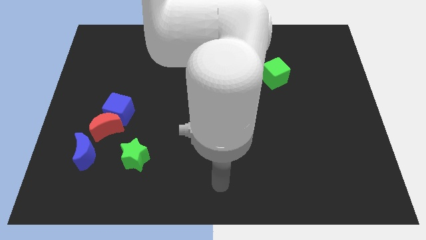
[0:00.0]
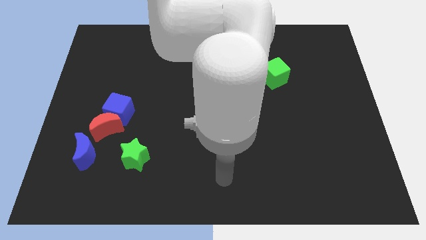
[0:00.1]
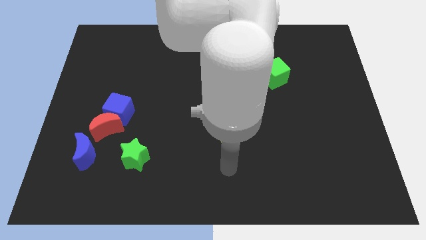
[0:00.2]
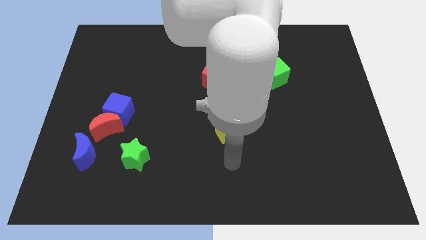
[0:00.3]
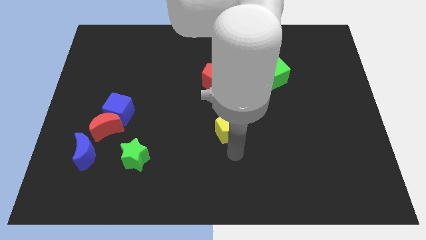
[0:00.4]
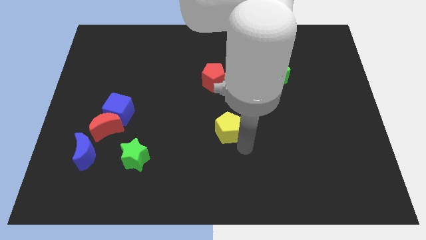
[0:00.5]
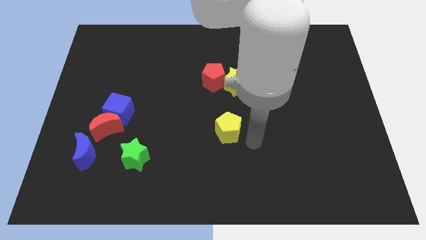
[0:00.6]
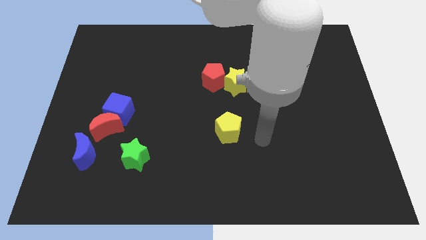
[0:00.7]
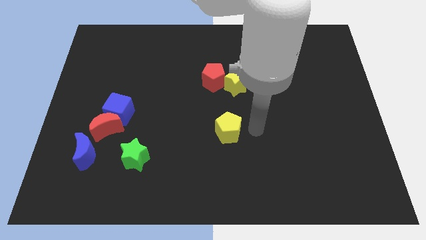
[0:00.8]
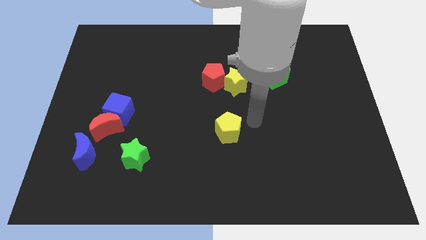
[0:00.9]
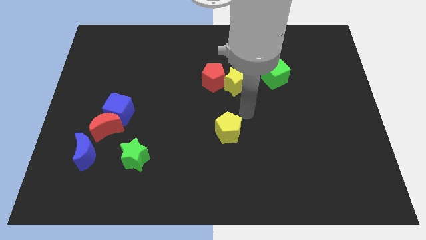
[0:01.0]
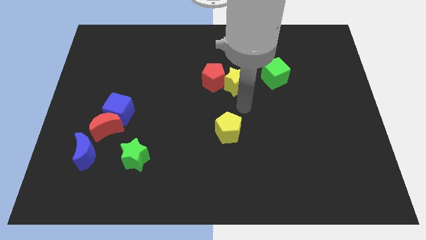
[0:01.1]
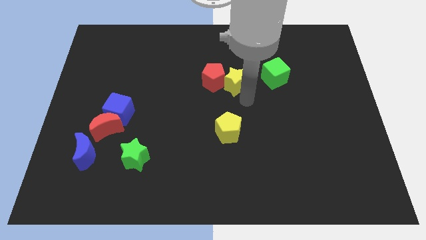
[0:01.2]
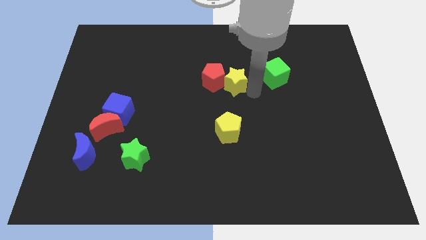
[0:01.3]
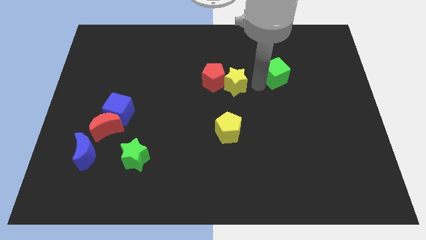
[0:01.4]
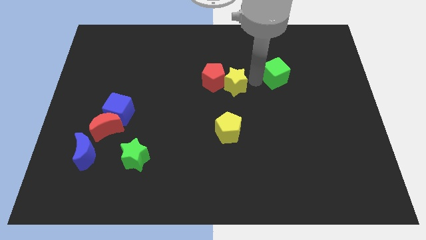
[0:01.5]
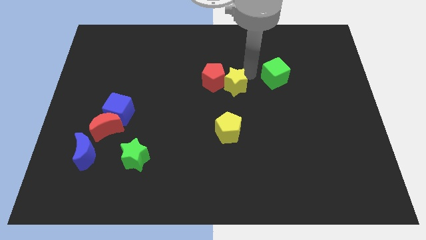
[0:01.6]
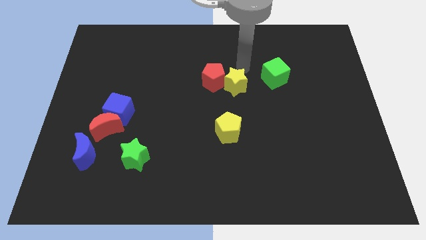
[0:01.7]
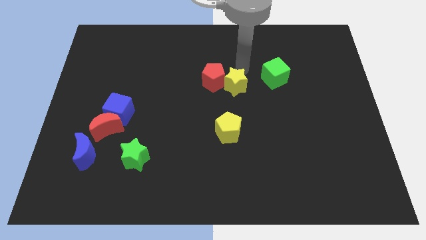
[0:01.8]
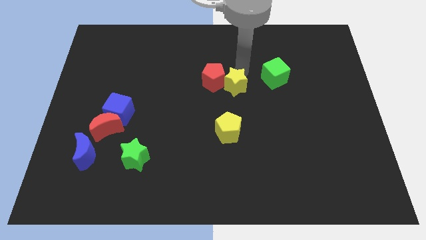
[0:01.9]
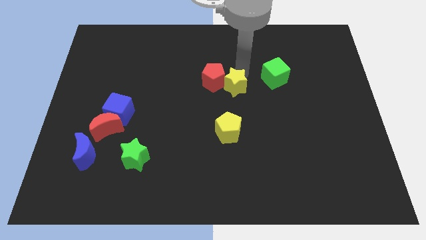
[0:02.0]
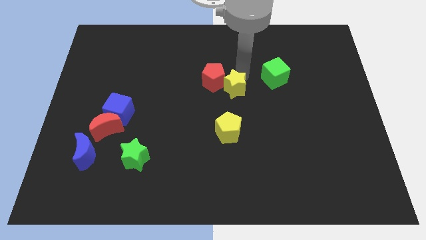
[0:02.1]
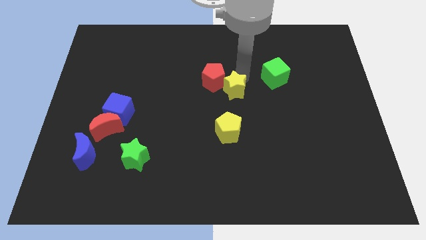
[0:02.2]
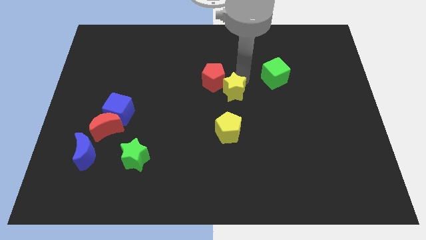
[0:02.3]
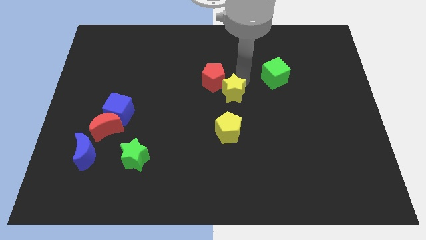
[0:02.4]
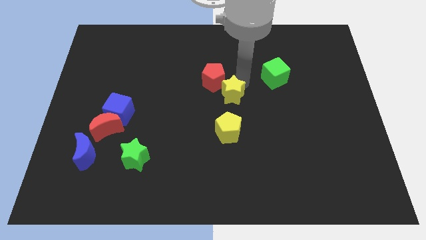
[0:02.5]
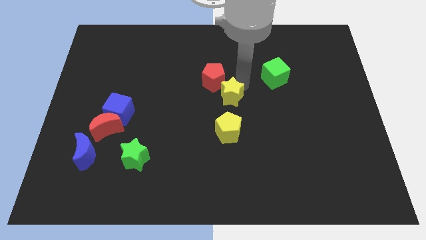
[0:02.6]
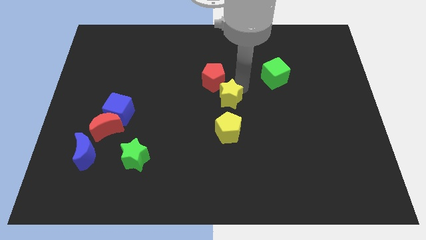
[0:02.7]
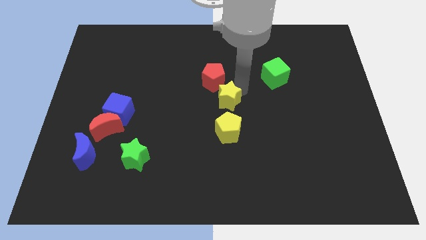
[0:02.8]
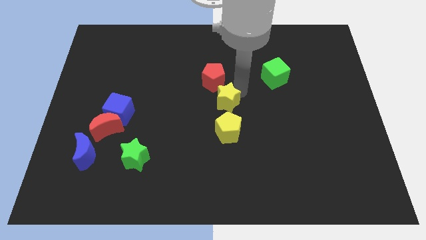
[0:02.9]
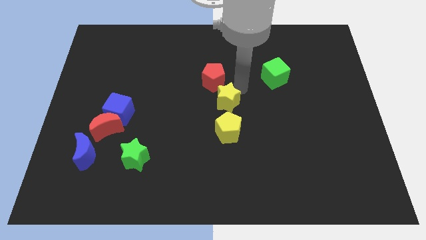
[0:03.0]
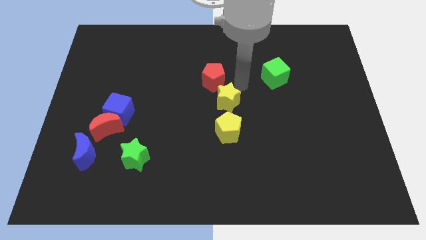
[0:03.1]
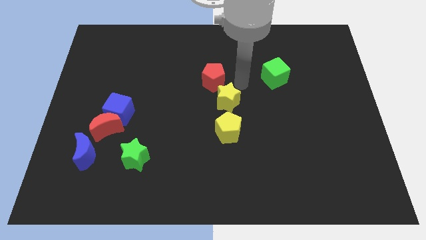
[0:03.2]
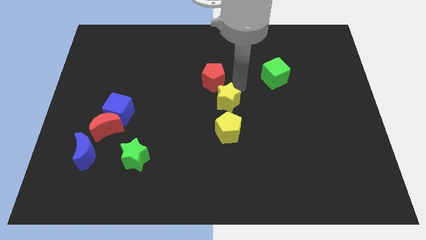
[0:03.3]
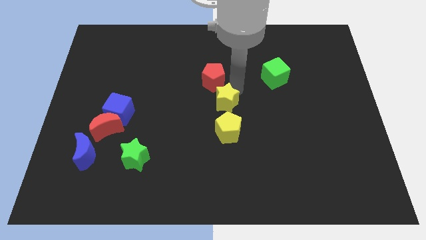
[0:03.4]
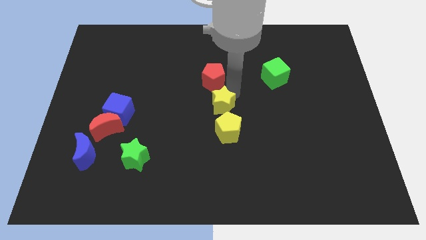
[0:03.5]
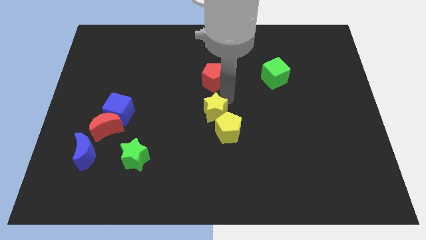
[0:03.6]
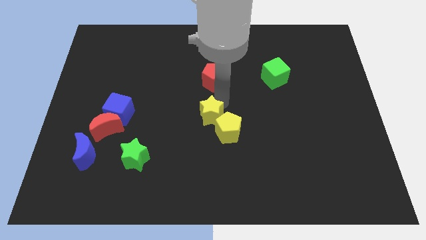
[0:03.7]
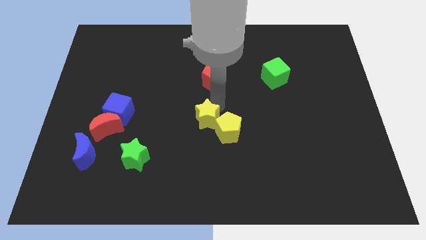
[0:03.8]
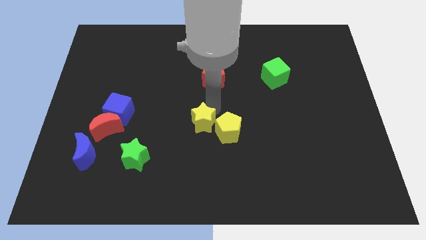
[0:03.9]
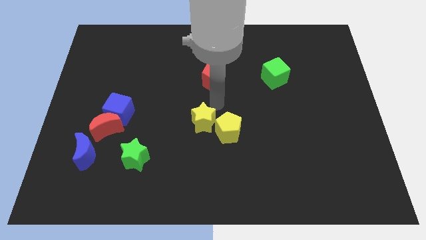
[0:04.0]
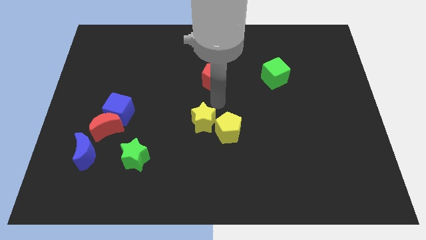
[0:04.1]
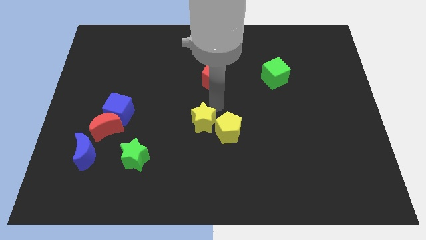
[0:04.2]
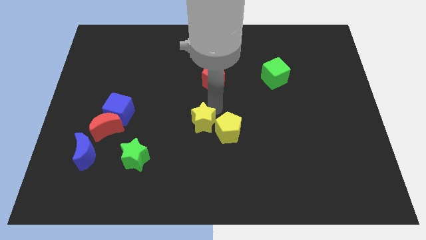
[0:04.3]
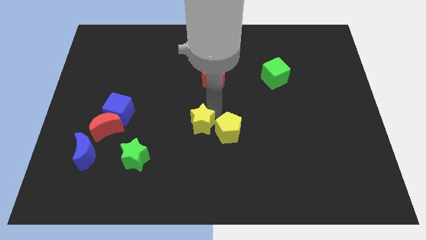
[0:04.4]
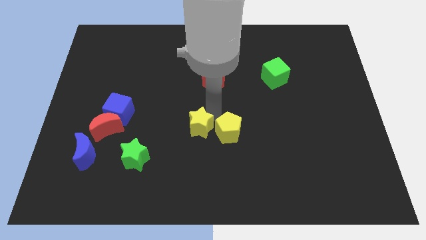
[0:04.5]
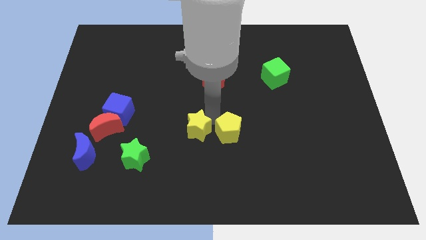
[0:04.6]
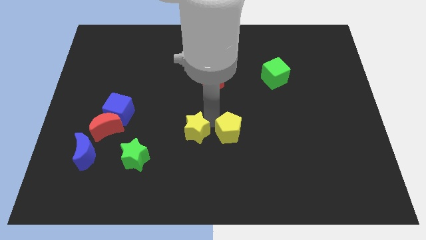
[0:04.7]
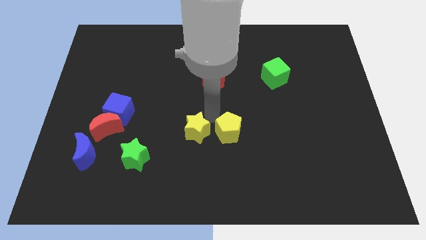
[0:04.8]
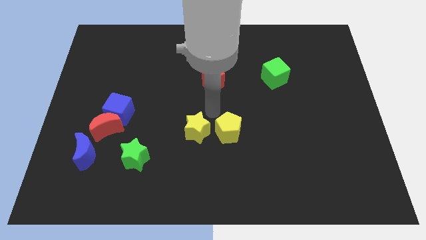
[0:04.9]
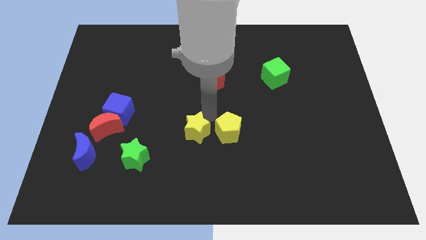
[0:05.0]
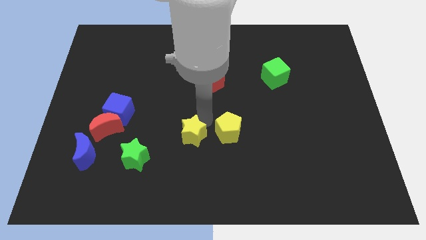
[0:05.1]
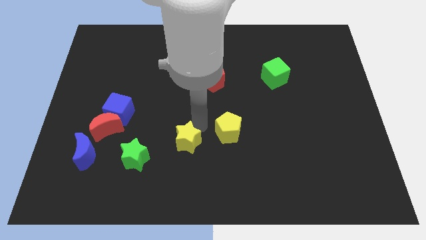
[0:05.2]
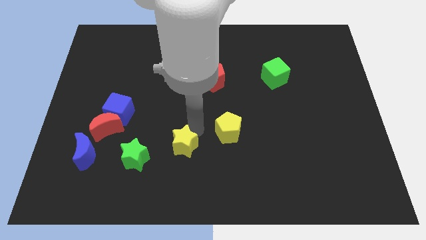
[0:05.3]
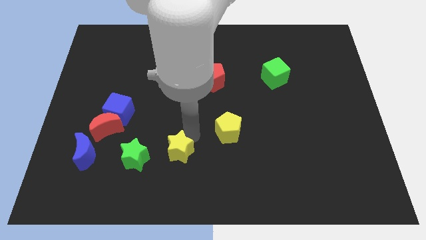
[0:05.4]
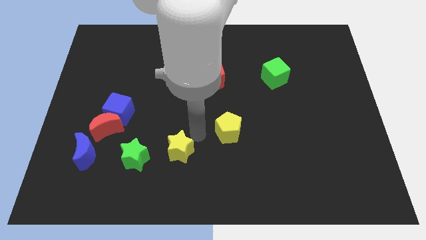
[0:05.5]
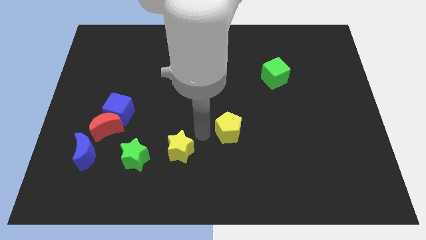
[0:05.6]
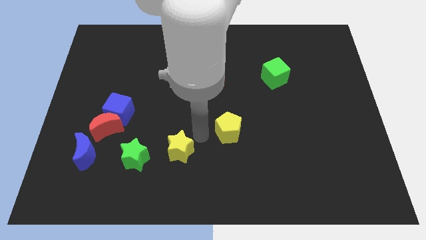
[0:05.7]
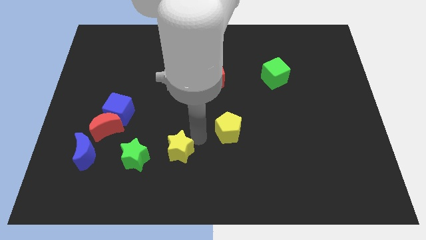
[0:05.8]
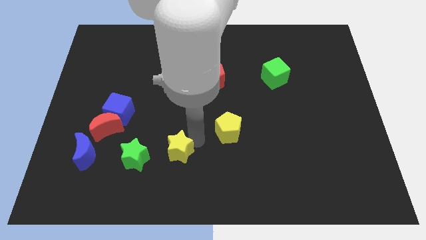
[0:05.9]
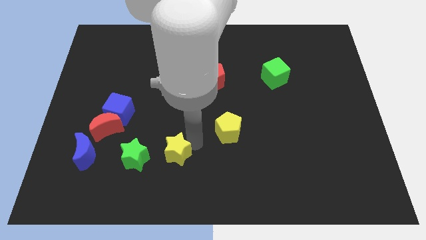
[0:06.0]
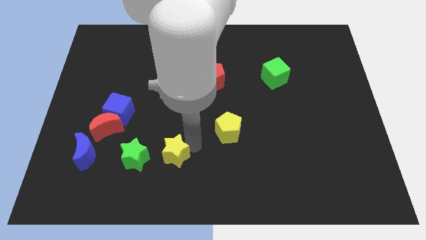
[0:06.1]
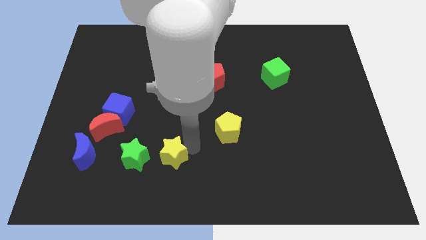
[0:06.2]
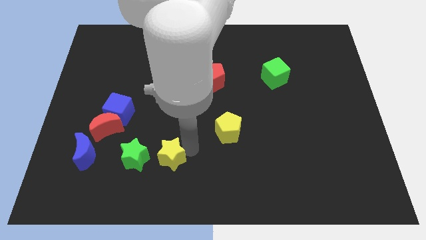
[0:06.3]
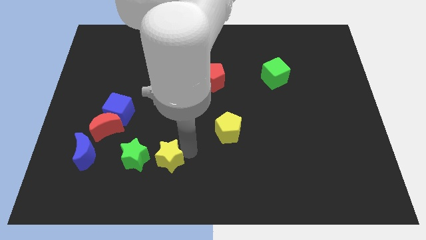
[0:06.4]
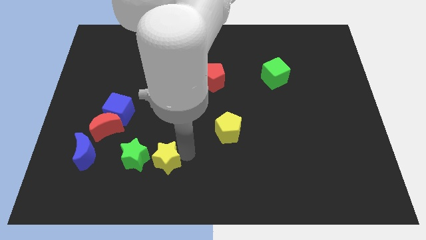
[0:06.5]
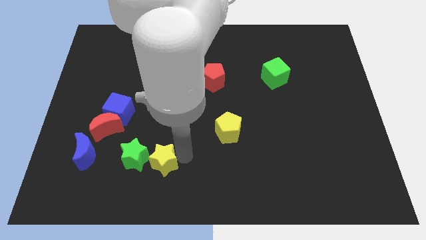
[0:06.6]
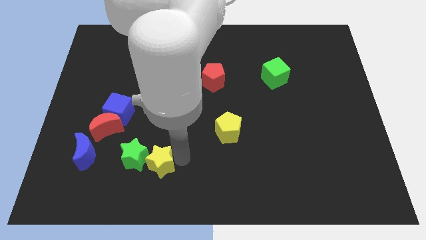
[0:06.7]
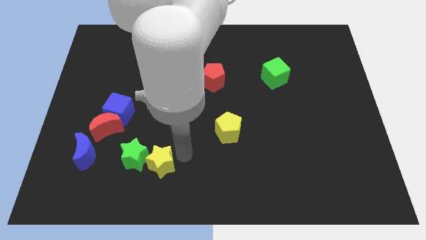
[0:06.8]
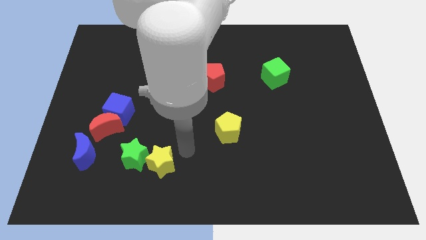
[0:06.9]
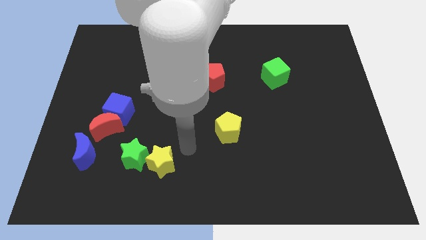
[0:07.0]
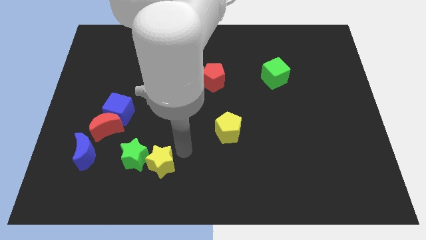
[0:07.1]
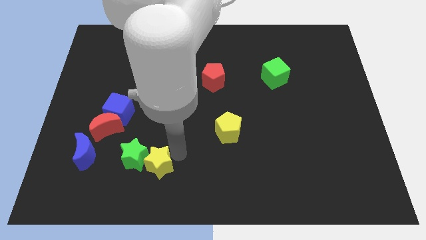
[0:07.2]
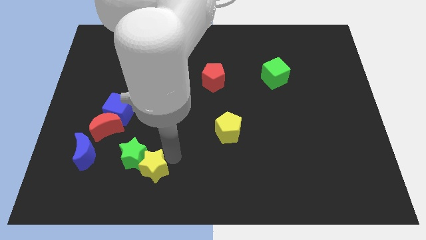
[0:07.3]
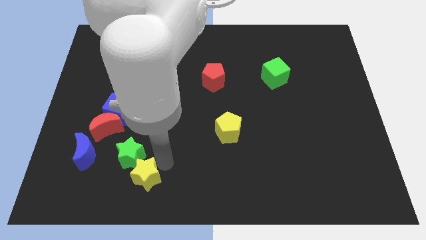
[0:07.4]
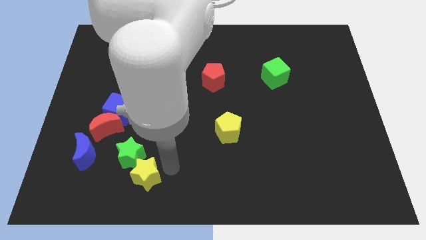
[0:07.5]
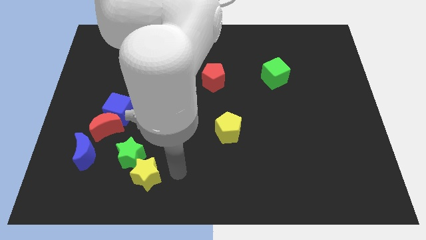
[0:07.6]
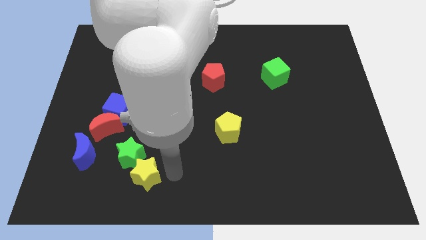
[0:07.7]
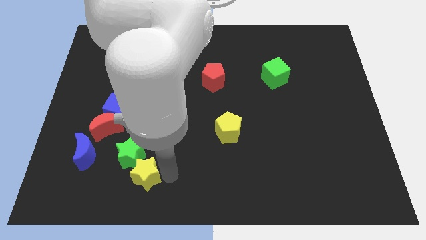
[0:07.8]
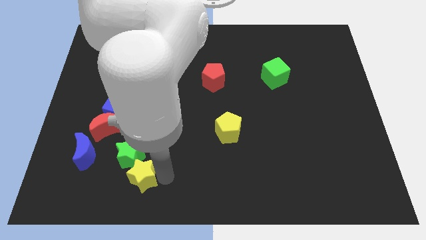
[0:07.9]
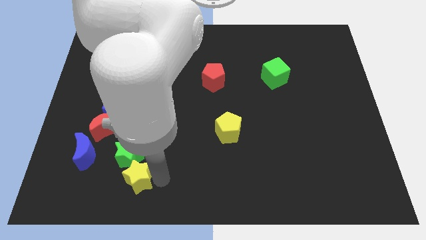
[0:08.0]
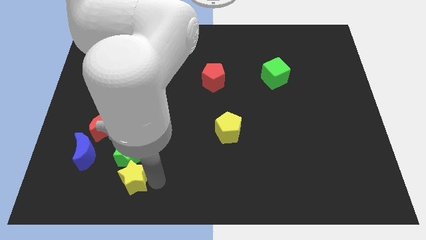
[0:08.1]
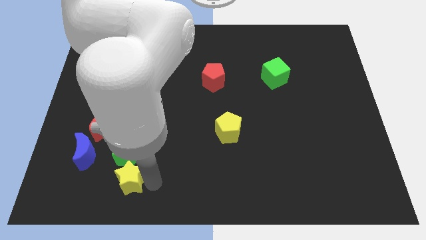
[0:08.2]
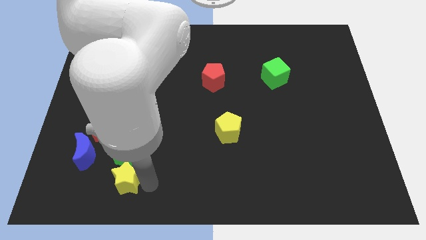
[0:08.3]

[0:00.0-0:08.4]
slide the yellow star to the bottom left side of the green star
